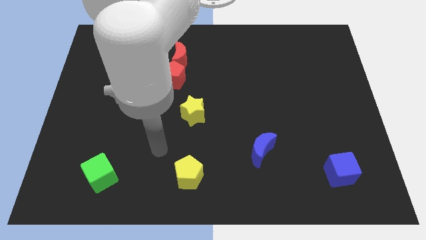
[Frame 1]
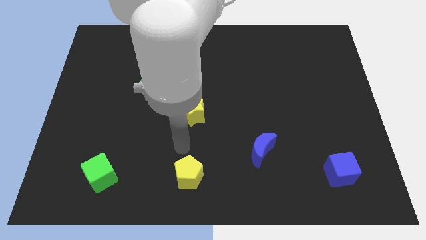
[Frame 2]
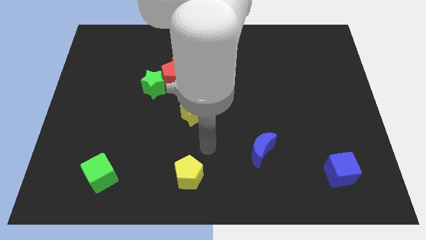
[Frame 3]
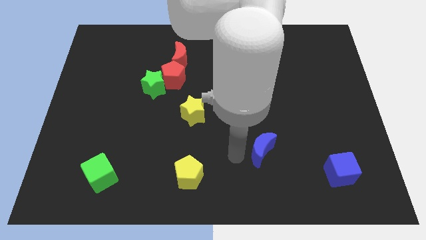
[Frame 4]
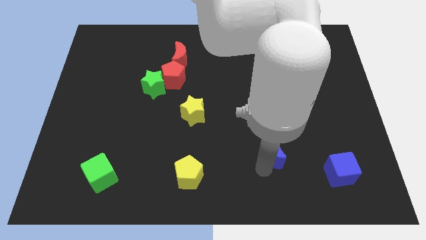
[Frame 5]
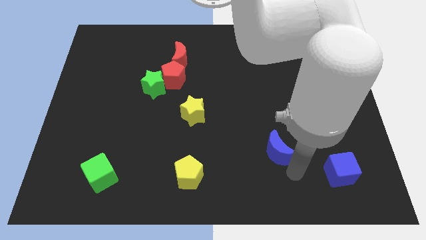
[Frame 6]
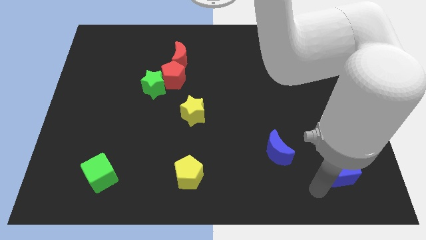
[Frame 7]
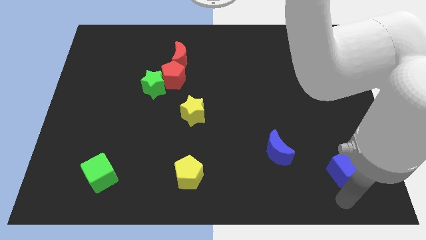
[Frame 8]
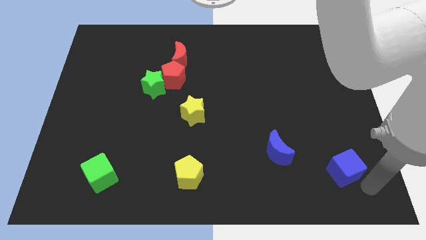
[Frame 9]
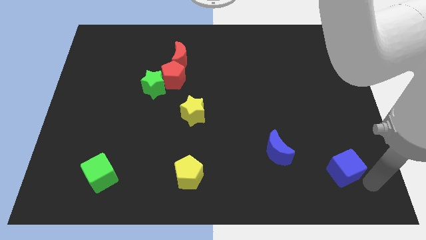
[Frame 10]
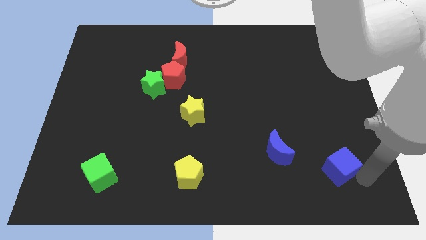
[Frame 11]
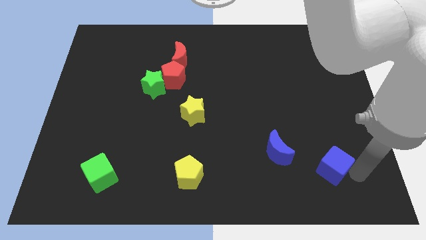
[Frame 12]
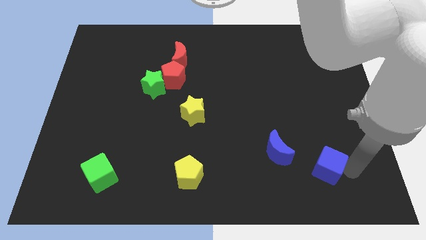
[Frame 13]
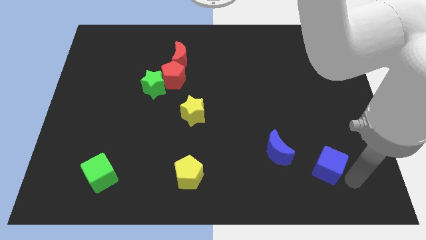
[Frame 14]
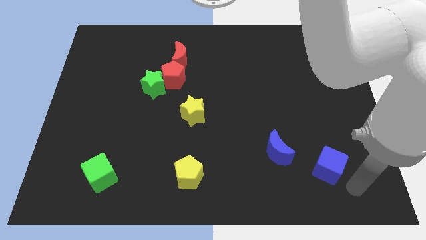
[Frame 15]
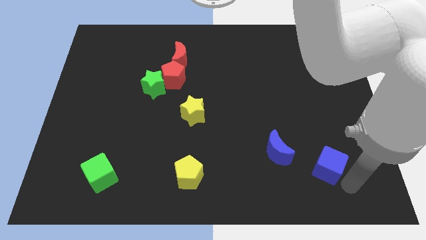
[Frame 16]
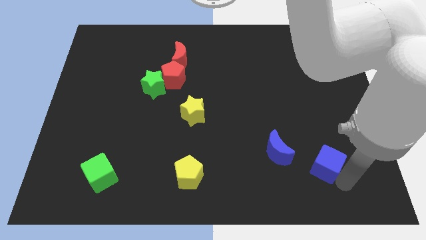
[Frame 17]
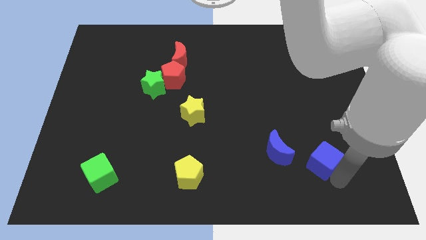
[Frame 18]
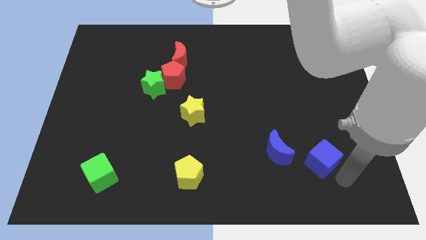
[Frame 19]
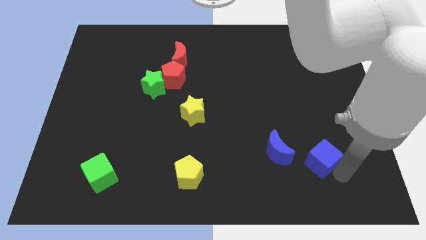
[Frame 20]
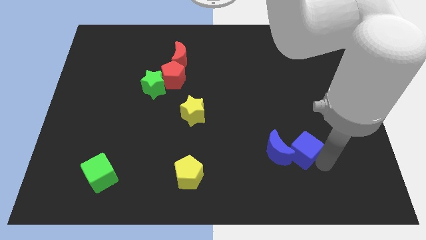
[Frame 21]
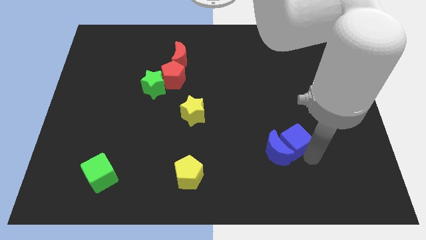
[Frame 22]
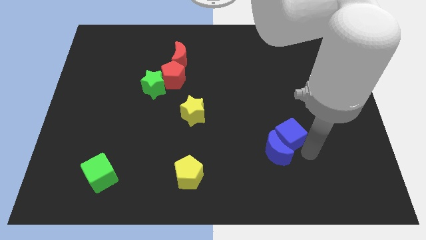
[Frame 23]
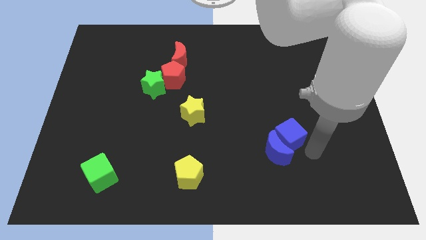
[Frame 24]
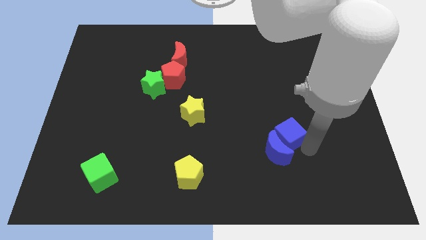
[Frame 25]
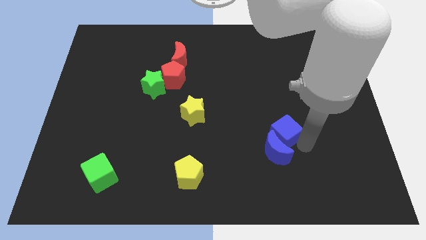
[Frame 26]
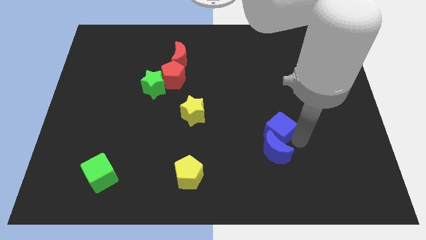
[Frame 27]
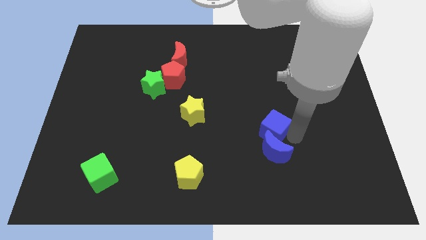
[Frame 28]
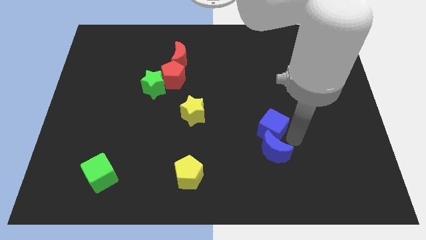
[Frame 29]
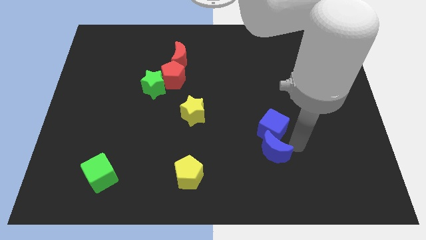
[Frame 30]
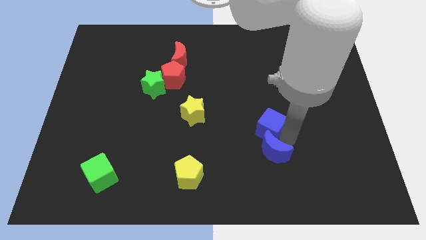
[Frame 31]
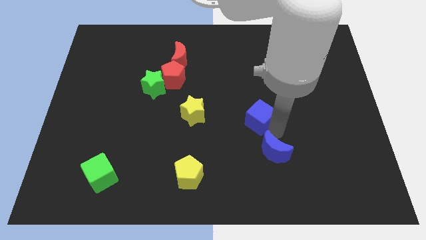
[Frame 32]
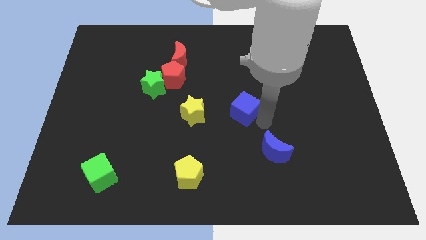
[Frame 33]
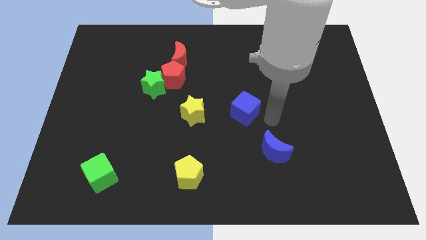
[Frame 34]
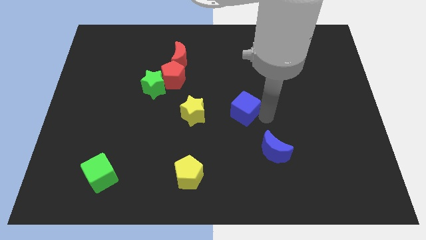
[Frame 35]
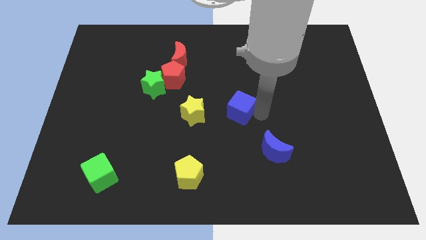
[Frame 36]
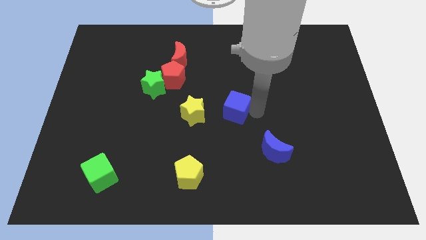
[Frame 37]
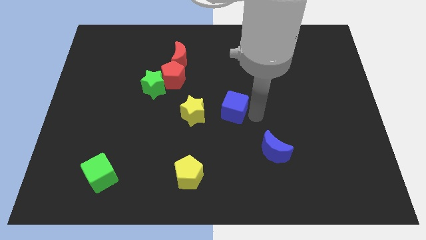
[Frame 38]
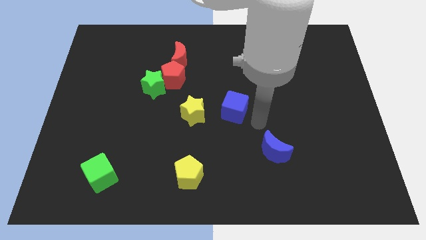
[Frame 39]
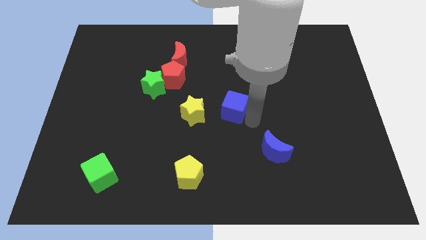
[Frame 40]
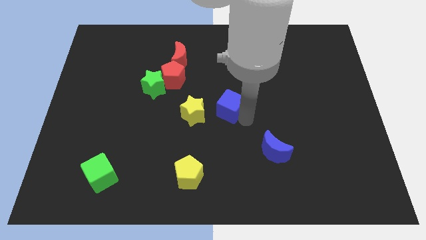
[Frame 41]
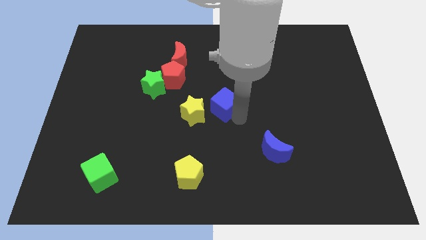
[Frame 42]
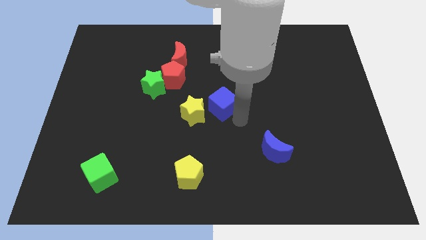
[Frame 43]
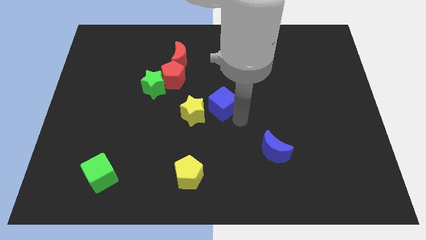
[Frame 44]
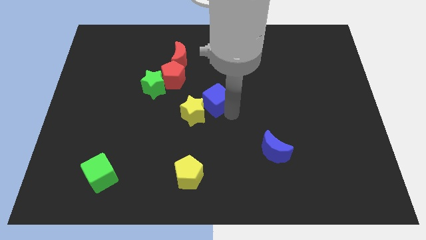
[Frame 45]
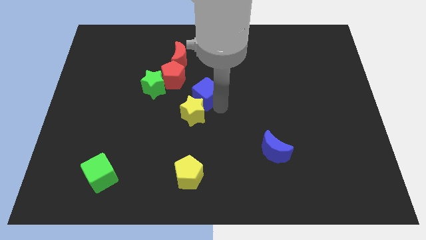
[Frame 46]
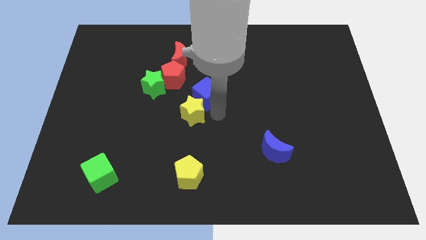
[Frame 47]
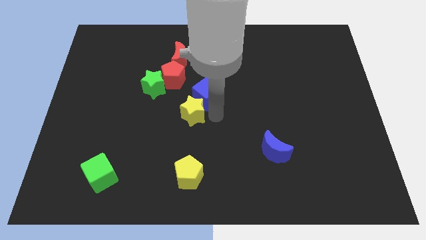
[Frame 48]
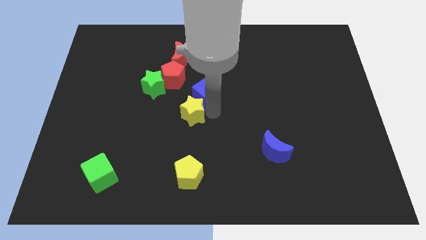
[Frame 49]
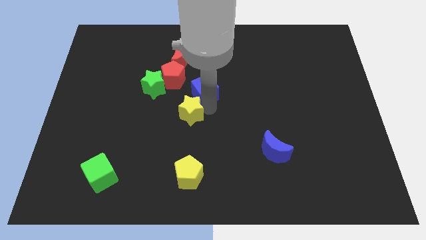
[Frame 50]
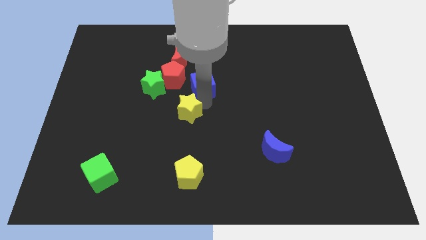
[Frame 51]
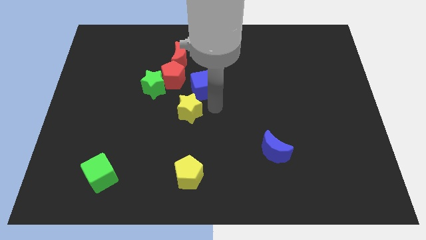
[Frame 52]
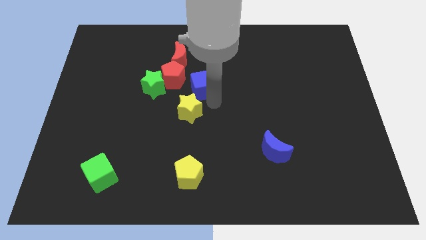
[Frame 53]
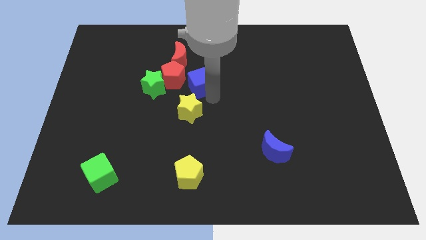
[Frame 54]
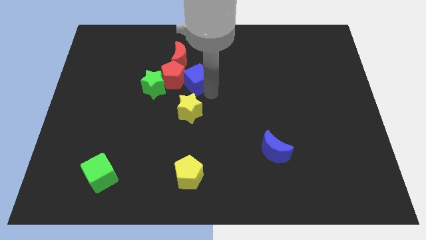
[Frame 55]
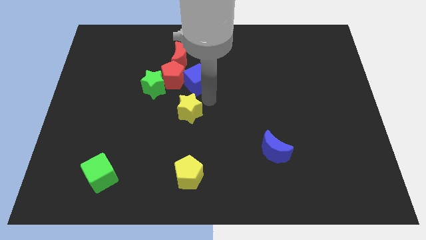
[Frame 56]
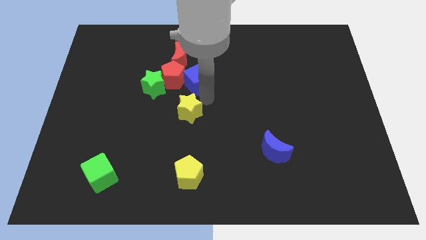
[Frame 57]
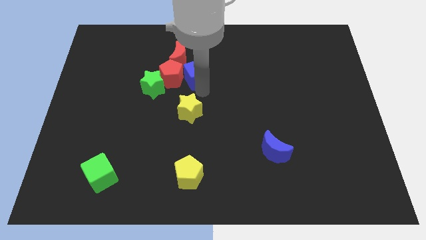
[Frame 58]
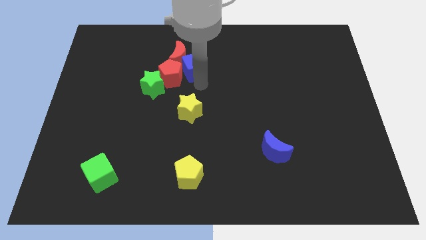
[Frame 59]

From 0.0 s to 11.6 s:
move the blue cube close to the red moon

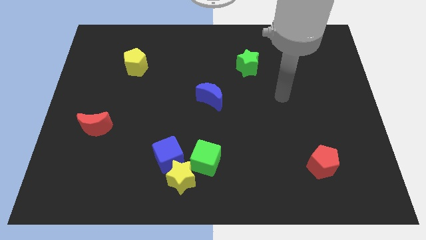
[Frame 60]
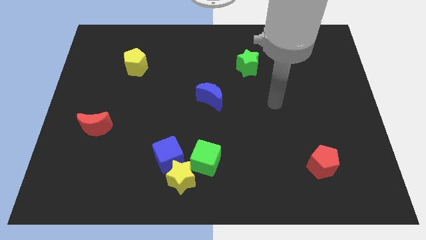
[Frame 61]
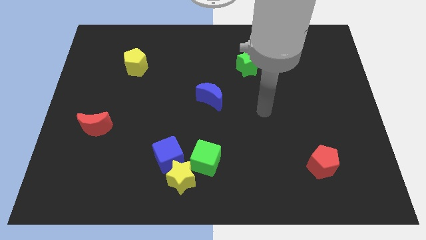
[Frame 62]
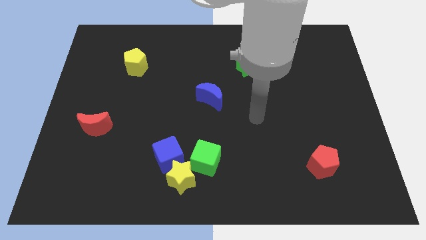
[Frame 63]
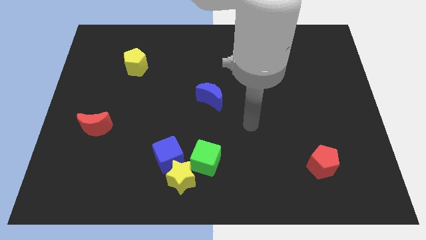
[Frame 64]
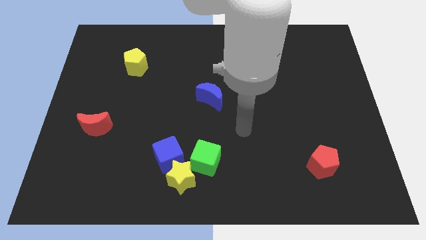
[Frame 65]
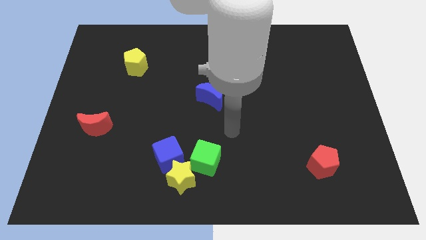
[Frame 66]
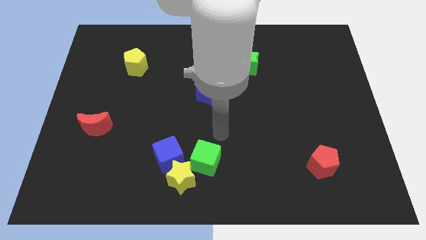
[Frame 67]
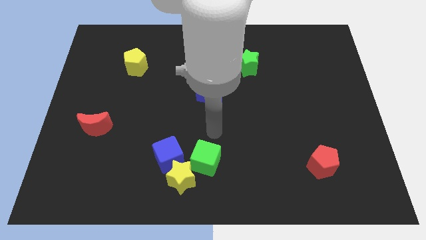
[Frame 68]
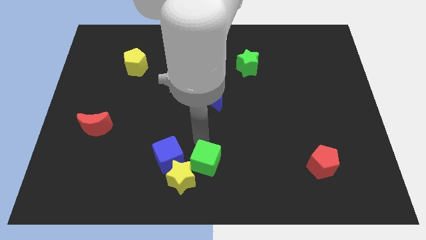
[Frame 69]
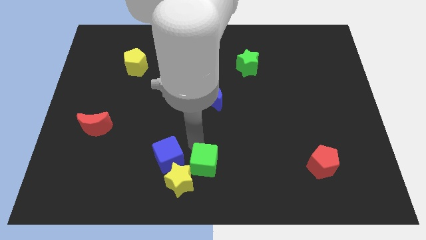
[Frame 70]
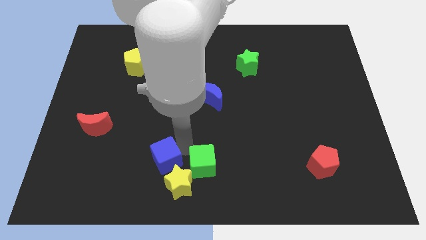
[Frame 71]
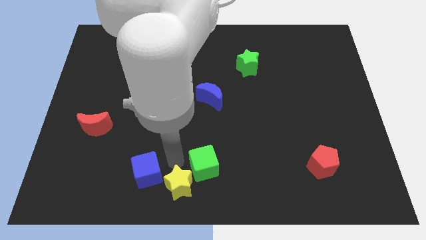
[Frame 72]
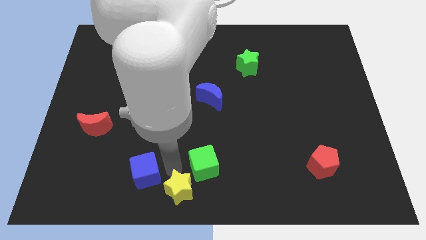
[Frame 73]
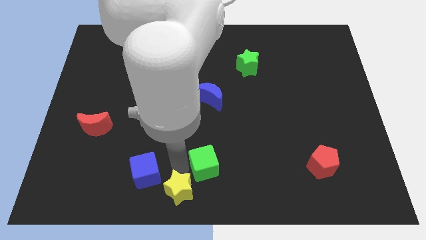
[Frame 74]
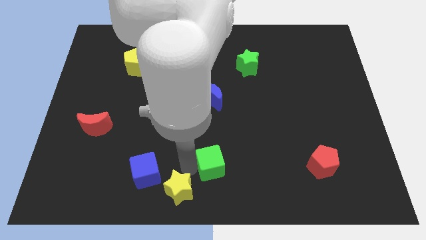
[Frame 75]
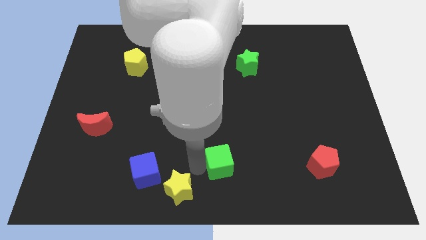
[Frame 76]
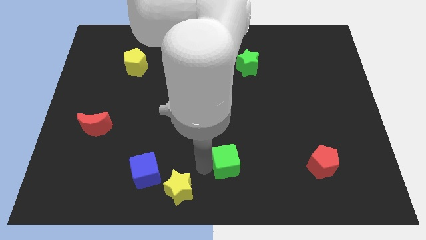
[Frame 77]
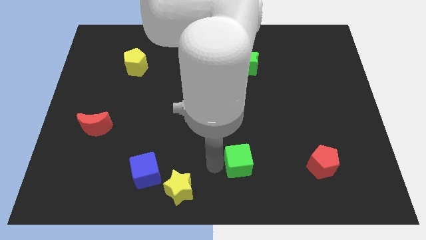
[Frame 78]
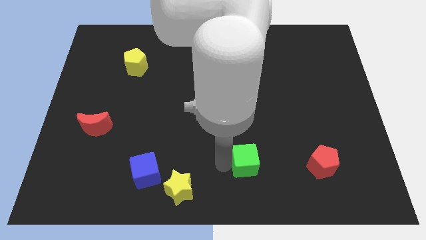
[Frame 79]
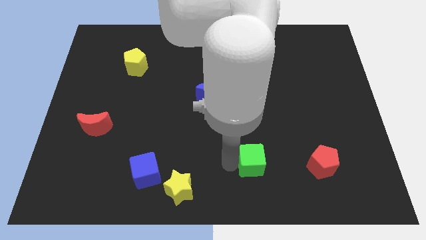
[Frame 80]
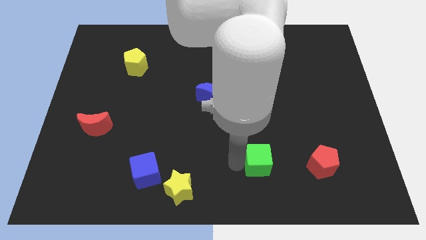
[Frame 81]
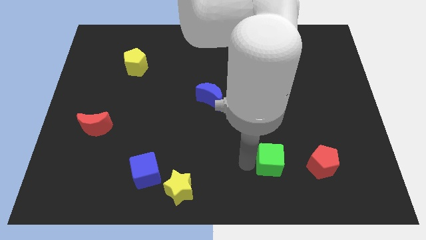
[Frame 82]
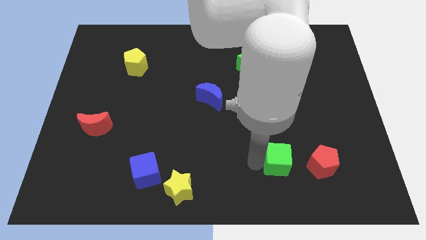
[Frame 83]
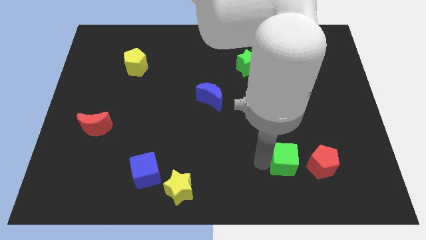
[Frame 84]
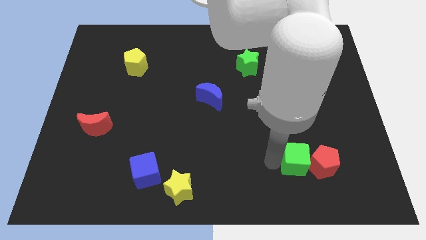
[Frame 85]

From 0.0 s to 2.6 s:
move the green cube to the red pentagon
